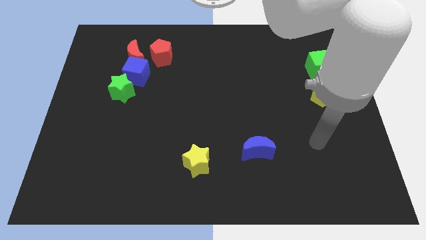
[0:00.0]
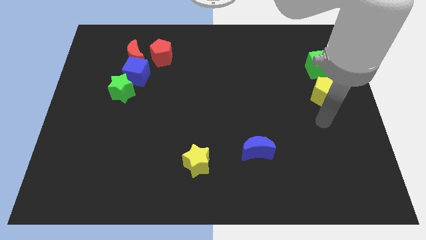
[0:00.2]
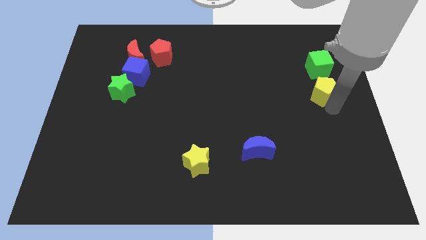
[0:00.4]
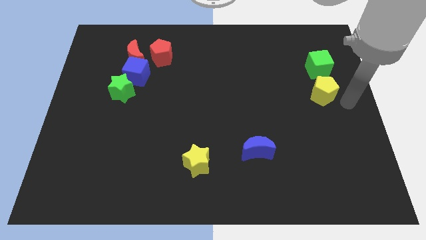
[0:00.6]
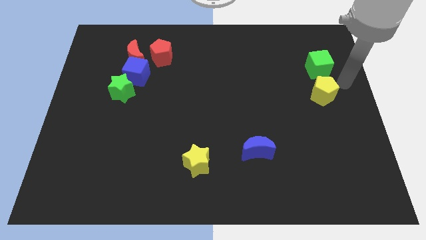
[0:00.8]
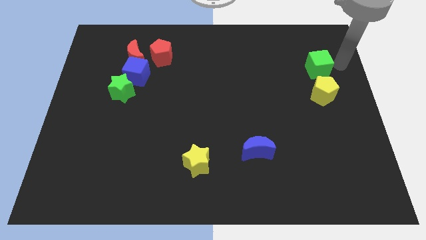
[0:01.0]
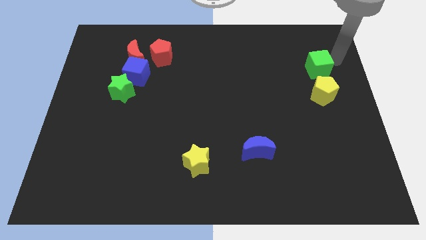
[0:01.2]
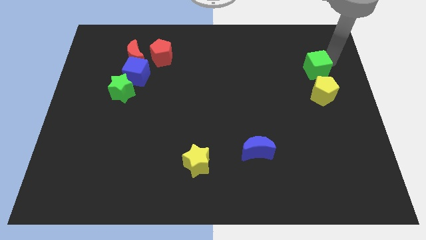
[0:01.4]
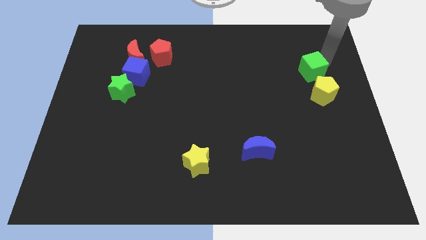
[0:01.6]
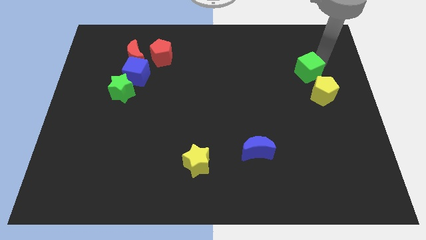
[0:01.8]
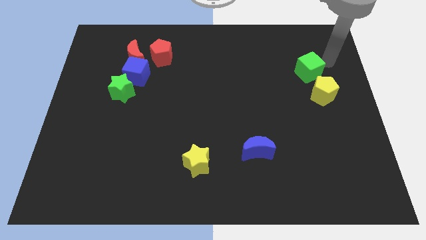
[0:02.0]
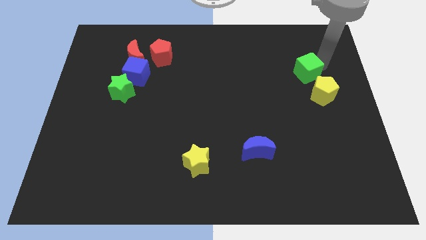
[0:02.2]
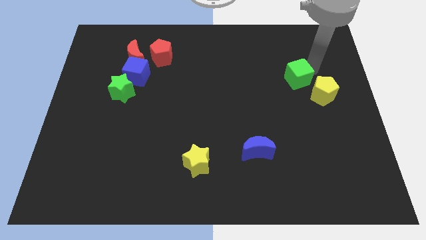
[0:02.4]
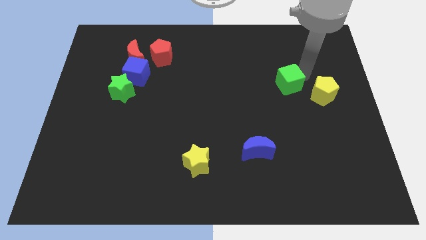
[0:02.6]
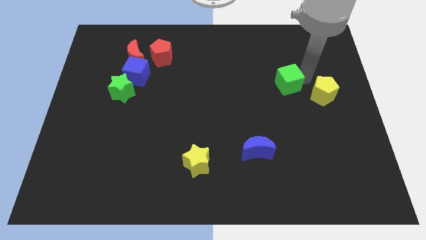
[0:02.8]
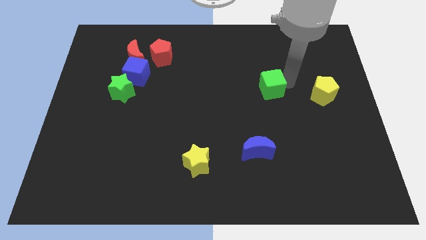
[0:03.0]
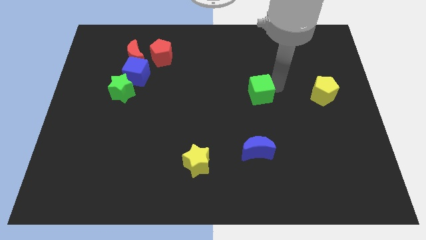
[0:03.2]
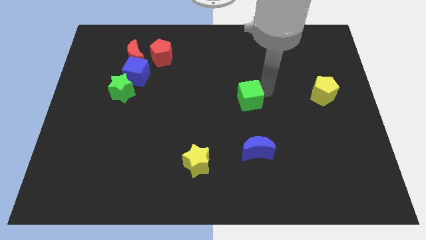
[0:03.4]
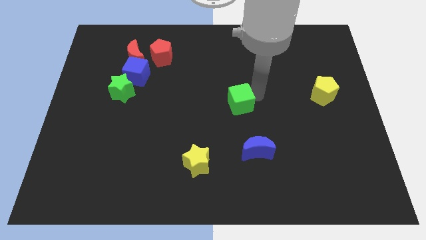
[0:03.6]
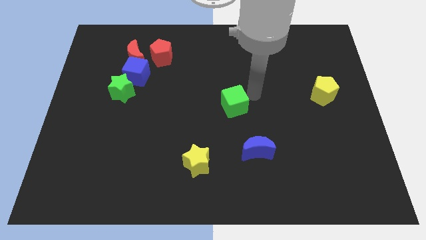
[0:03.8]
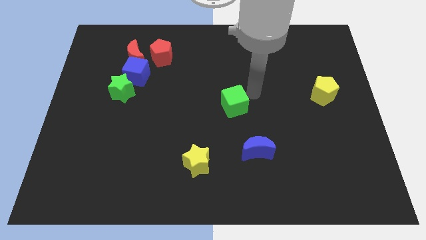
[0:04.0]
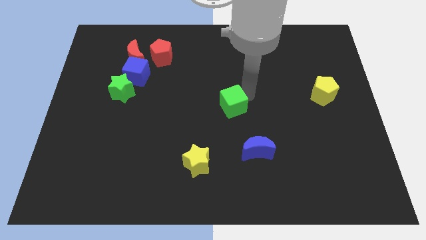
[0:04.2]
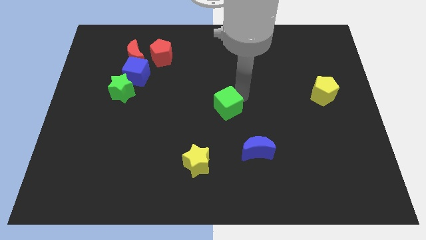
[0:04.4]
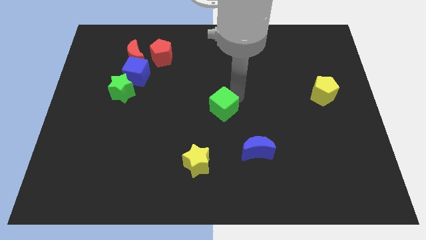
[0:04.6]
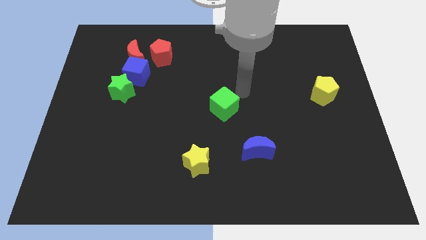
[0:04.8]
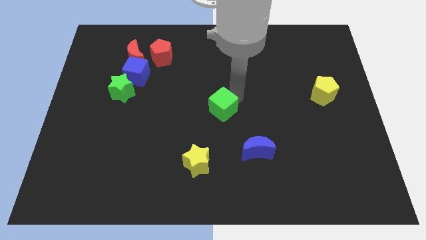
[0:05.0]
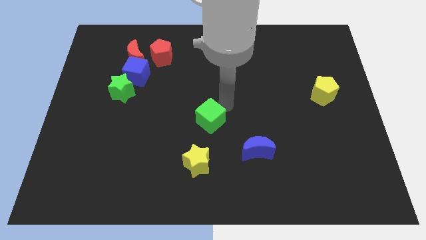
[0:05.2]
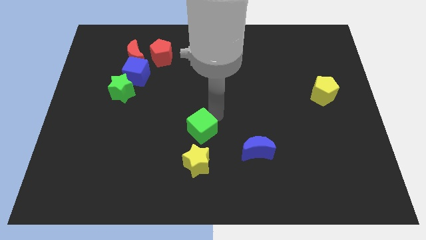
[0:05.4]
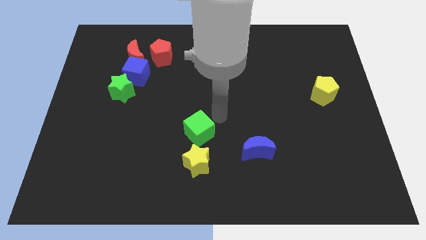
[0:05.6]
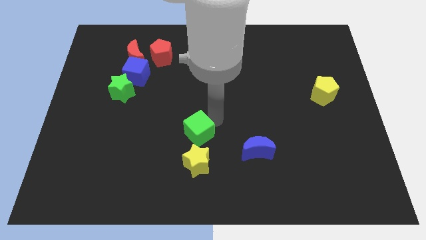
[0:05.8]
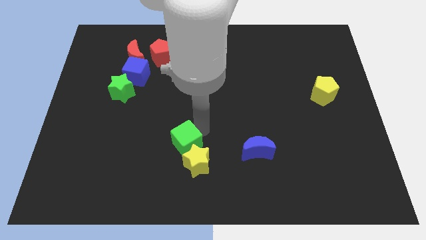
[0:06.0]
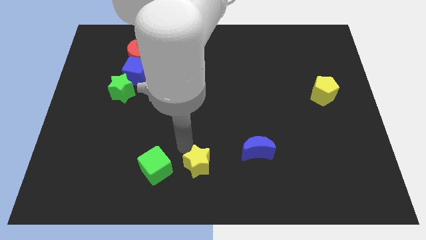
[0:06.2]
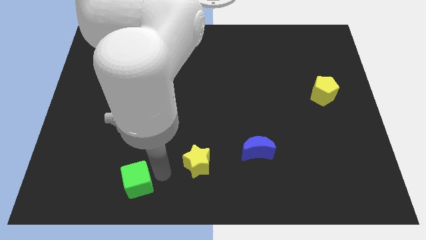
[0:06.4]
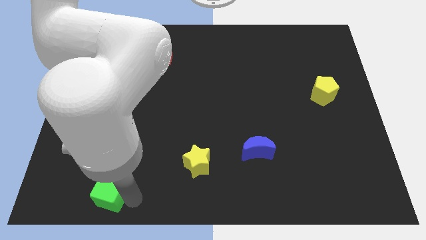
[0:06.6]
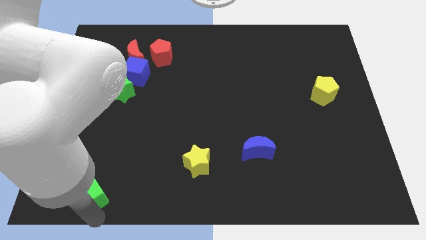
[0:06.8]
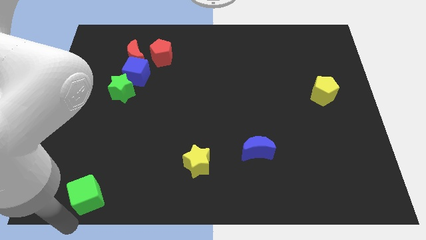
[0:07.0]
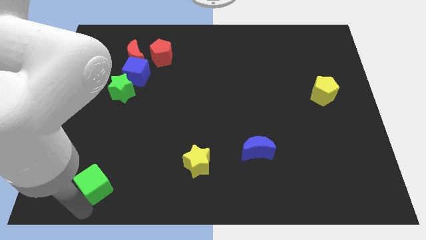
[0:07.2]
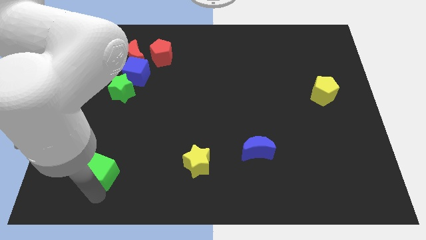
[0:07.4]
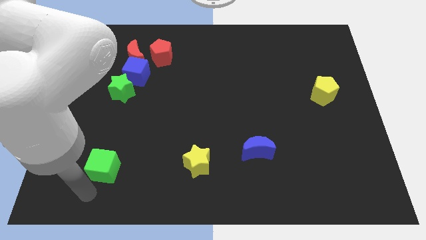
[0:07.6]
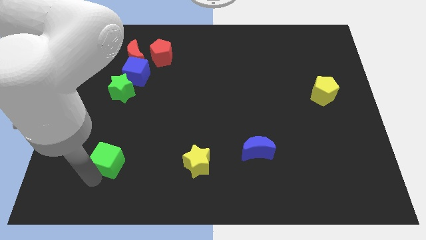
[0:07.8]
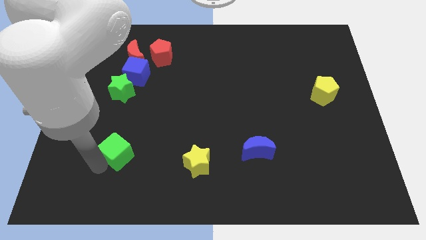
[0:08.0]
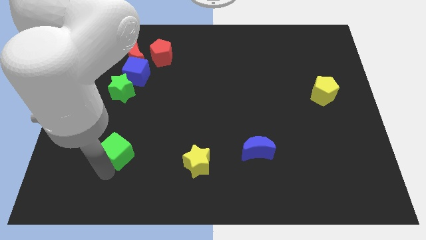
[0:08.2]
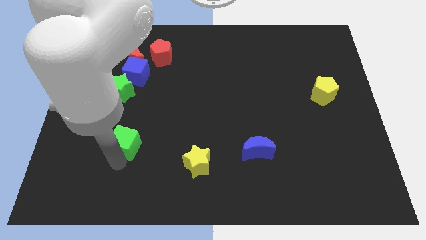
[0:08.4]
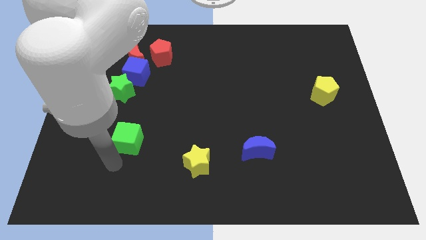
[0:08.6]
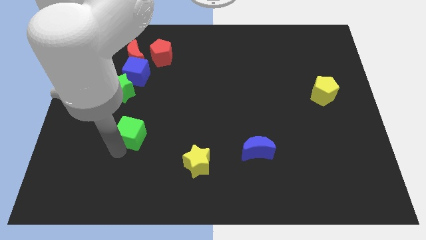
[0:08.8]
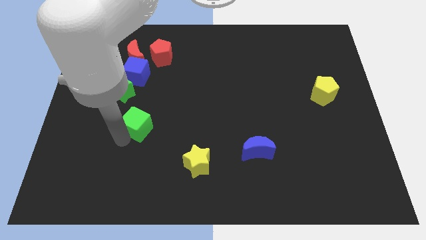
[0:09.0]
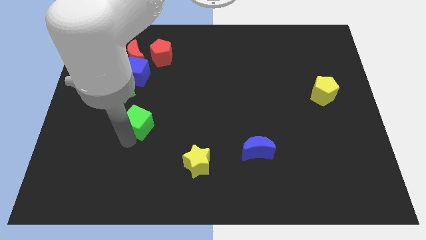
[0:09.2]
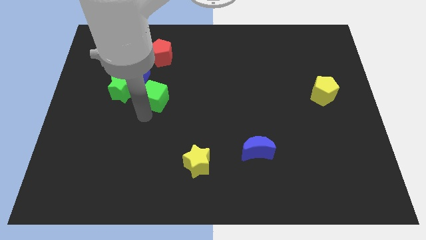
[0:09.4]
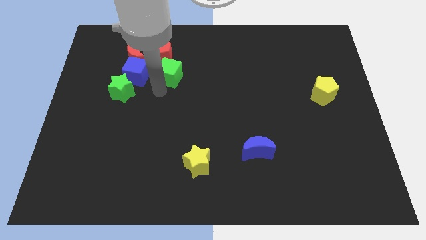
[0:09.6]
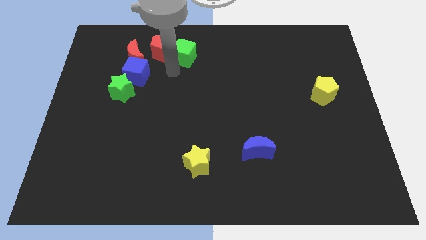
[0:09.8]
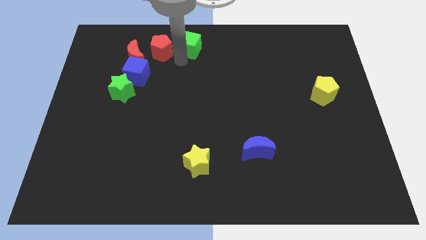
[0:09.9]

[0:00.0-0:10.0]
move the green cube to the top

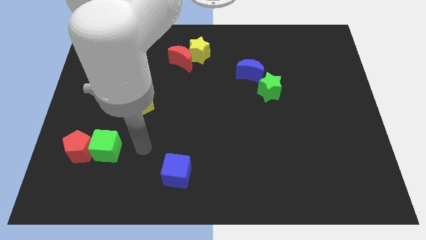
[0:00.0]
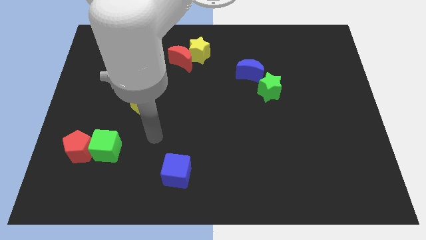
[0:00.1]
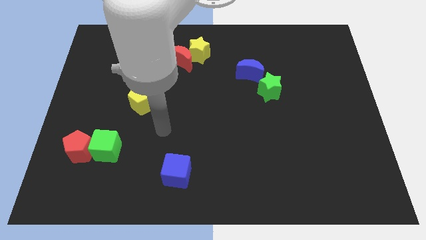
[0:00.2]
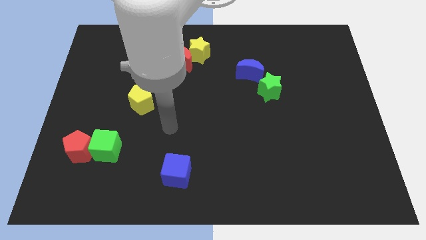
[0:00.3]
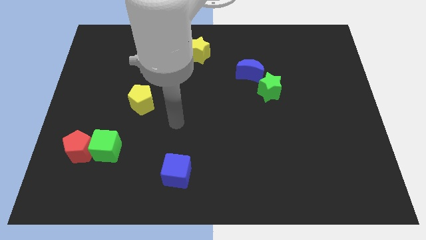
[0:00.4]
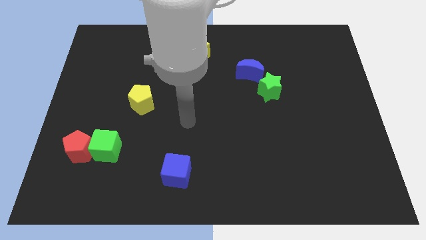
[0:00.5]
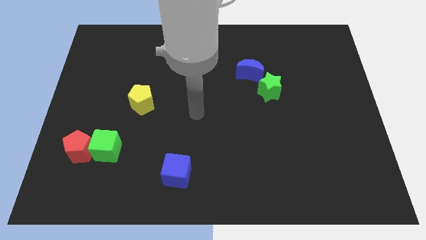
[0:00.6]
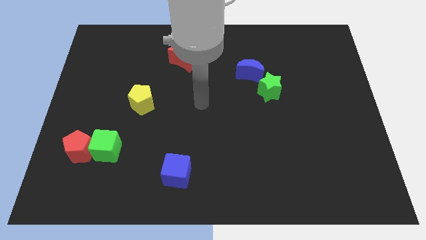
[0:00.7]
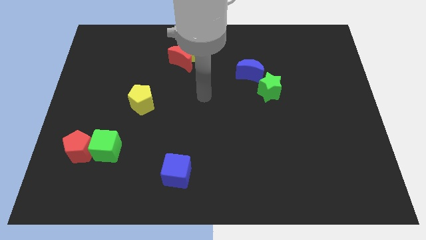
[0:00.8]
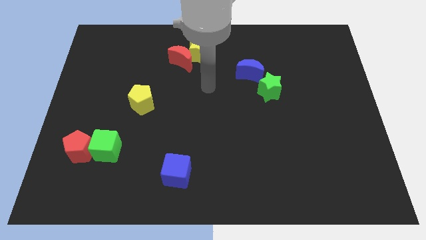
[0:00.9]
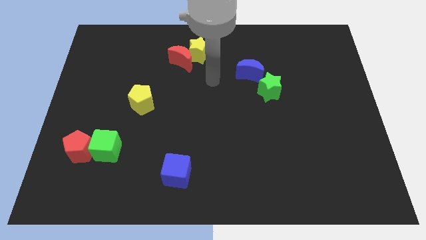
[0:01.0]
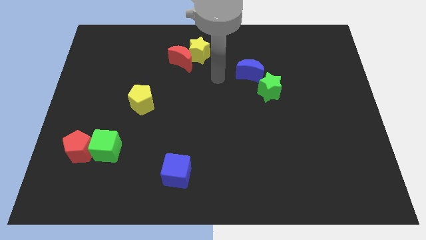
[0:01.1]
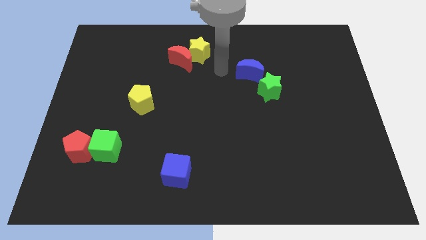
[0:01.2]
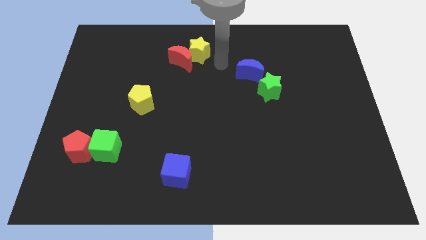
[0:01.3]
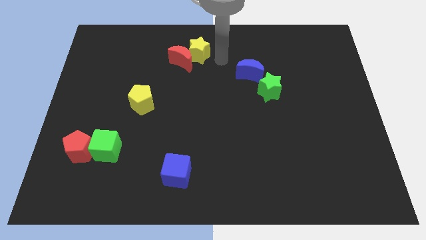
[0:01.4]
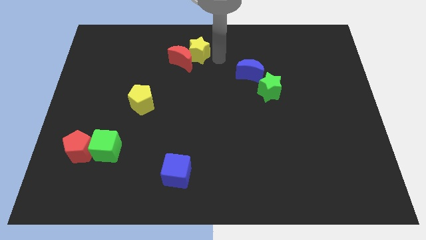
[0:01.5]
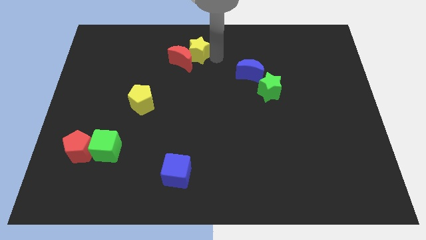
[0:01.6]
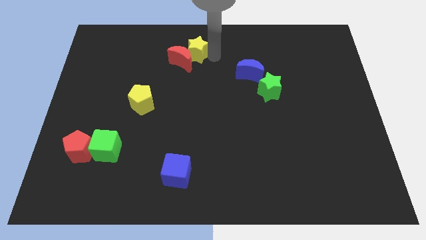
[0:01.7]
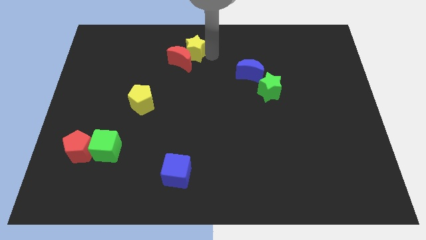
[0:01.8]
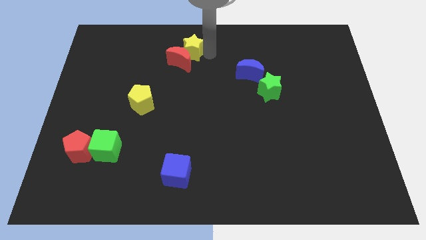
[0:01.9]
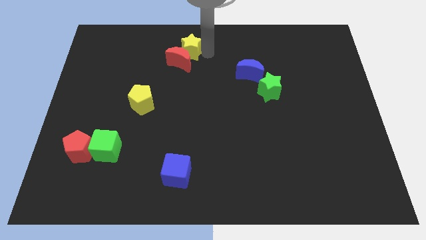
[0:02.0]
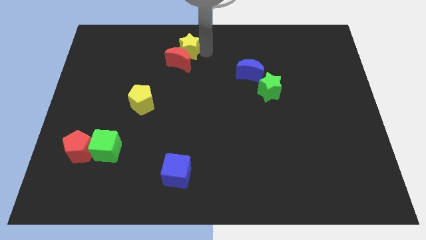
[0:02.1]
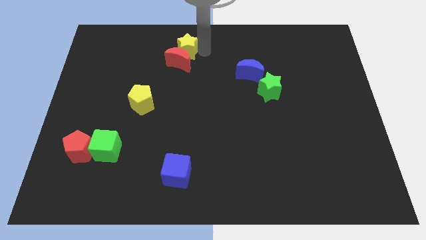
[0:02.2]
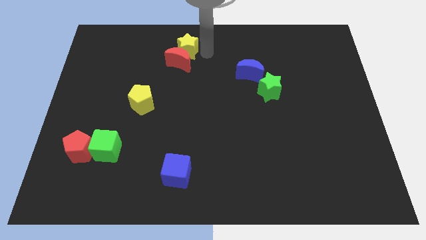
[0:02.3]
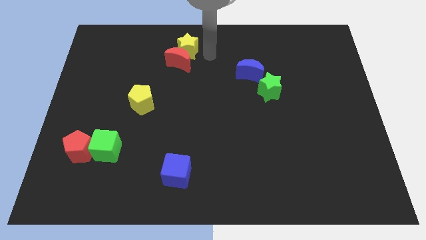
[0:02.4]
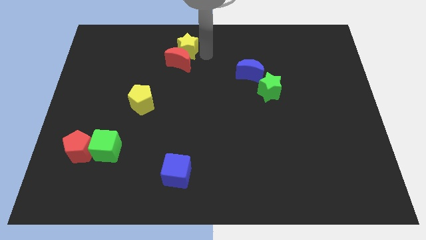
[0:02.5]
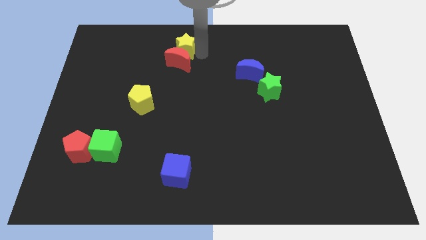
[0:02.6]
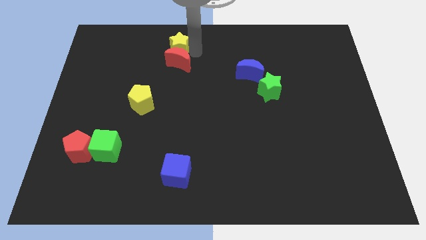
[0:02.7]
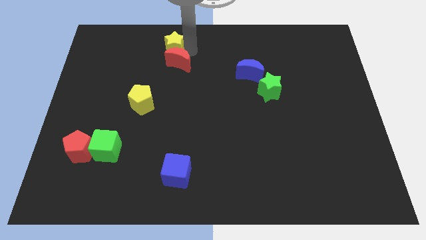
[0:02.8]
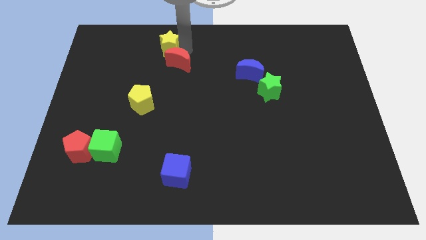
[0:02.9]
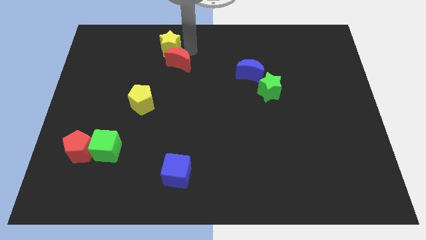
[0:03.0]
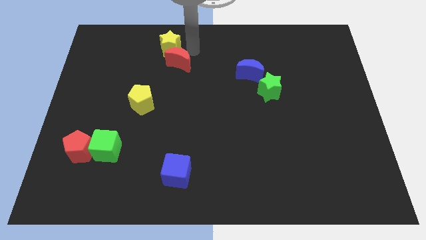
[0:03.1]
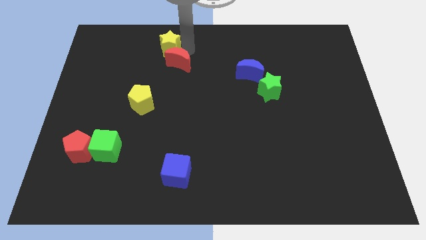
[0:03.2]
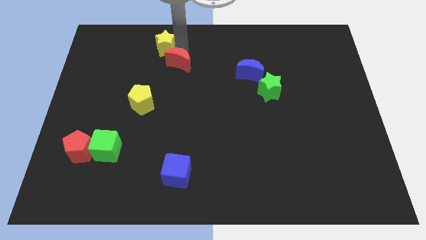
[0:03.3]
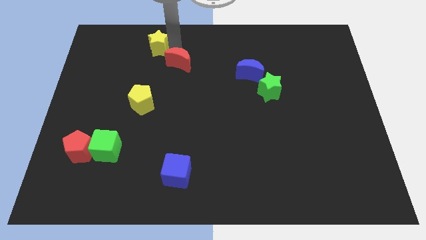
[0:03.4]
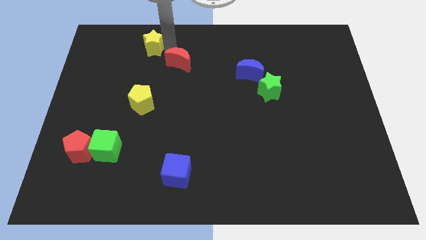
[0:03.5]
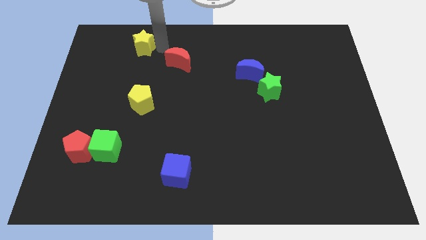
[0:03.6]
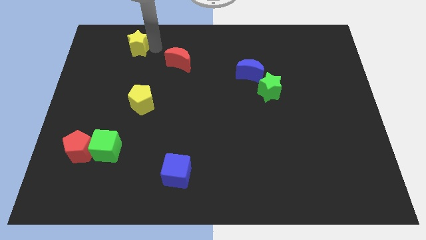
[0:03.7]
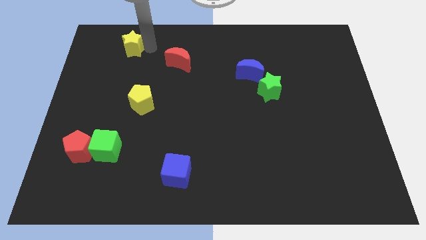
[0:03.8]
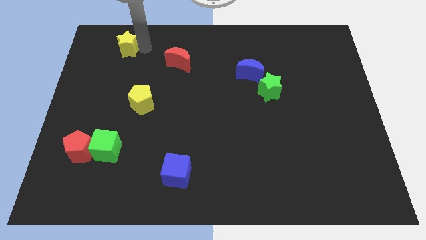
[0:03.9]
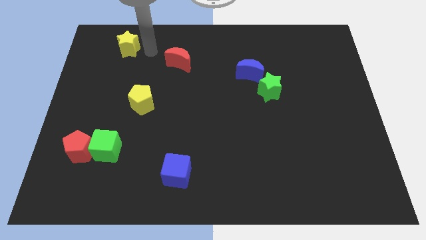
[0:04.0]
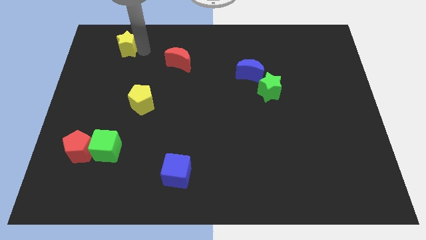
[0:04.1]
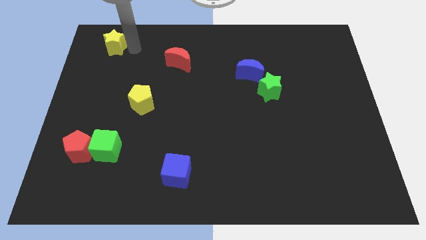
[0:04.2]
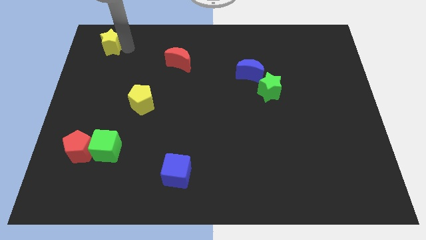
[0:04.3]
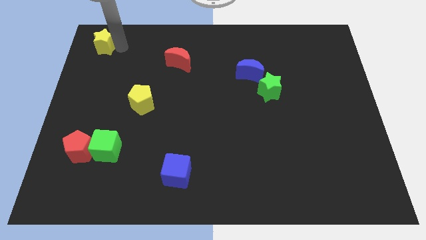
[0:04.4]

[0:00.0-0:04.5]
put the yellow star to the upper left corner
